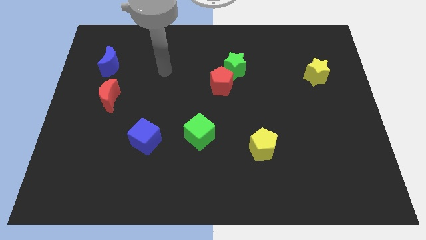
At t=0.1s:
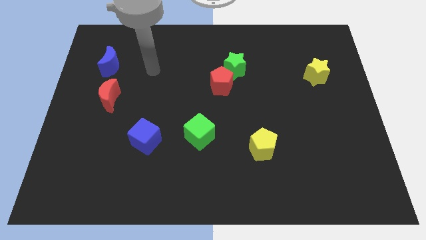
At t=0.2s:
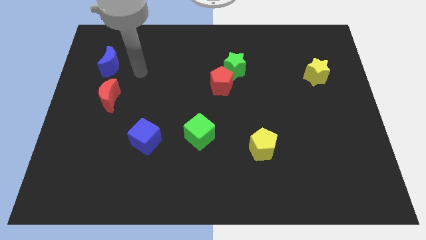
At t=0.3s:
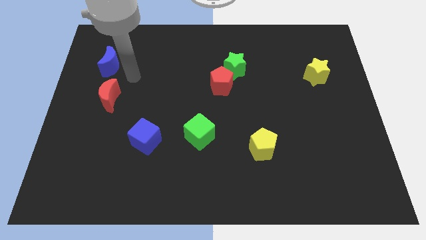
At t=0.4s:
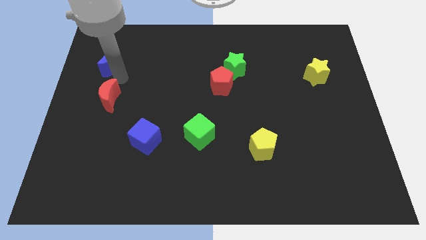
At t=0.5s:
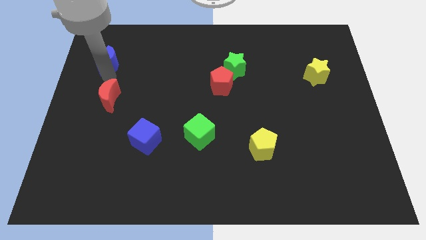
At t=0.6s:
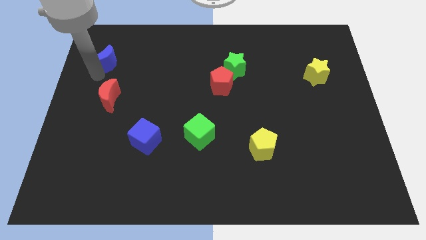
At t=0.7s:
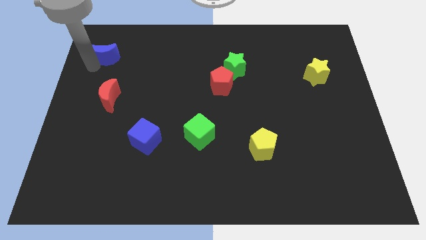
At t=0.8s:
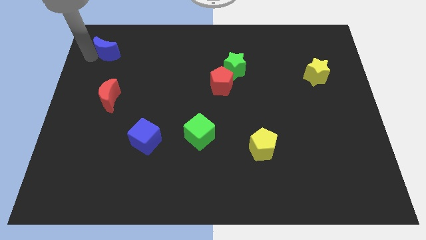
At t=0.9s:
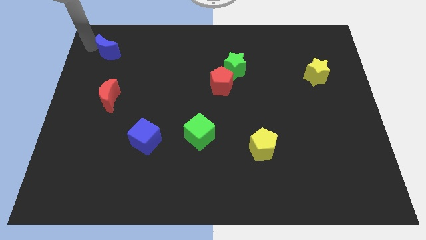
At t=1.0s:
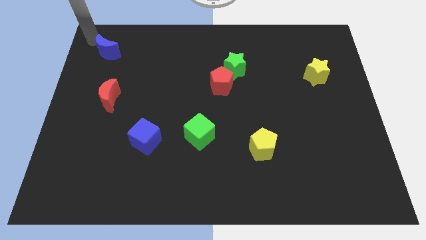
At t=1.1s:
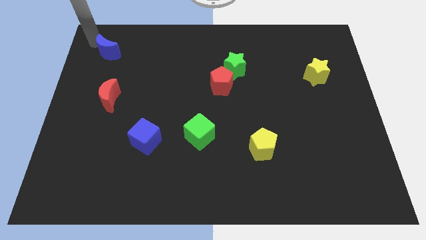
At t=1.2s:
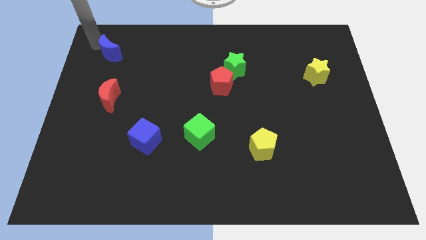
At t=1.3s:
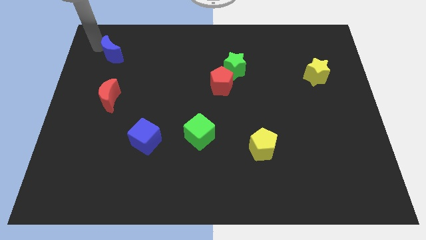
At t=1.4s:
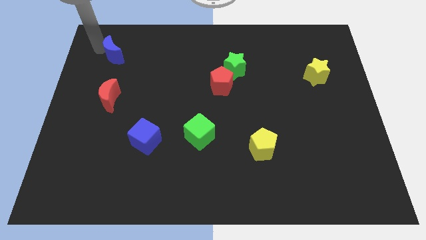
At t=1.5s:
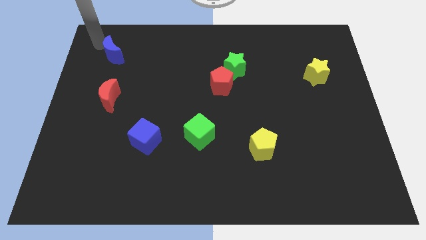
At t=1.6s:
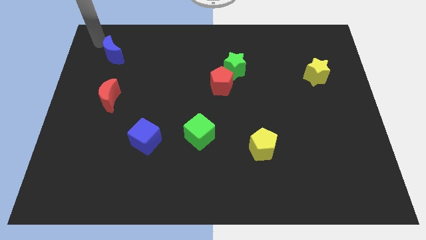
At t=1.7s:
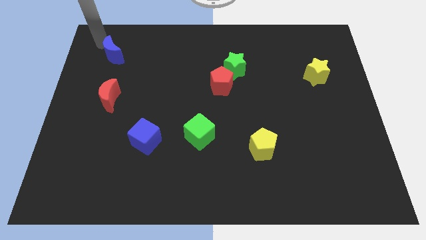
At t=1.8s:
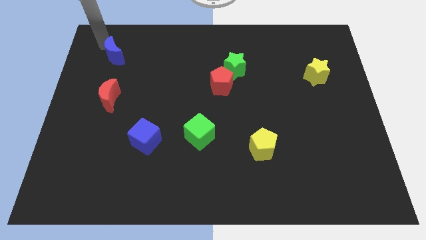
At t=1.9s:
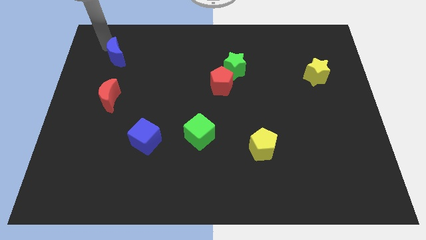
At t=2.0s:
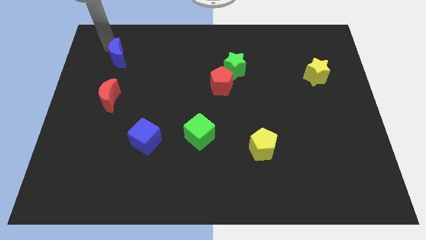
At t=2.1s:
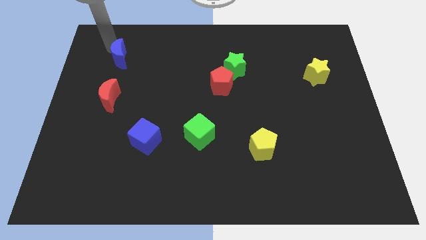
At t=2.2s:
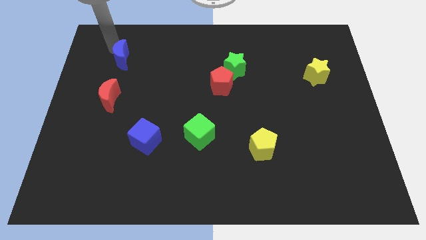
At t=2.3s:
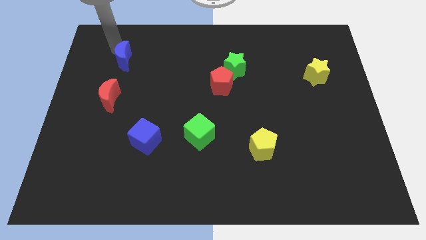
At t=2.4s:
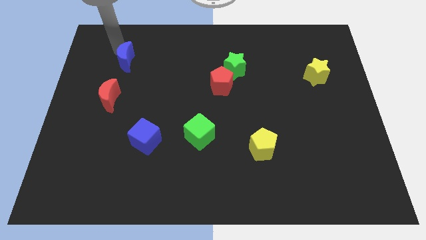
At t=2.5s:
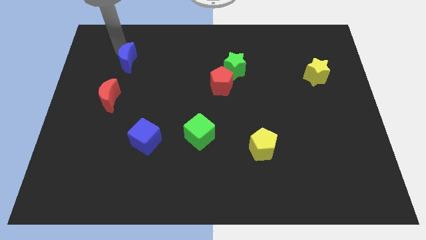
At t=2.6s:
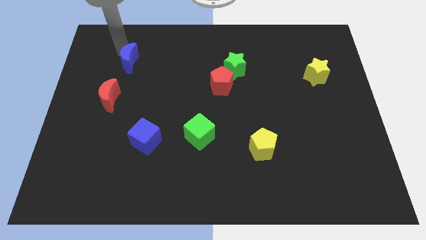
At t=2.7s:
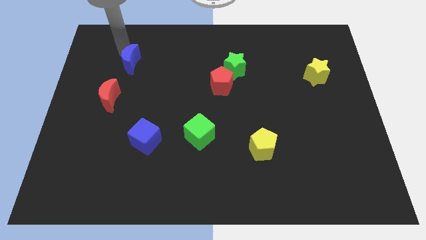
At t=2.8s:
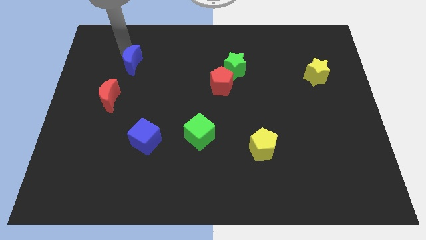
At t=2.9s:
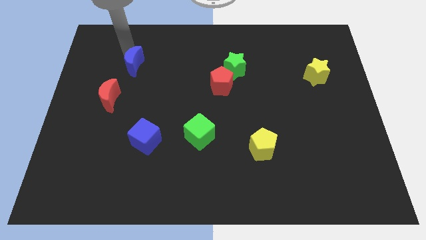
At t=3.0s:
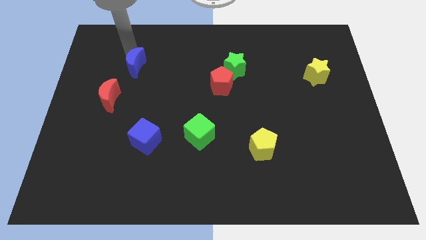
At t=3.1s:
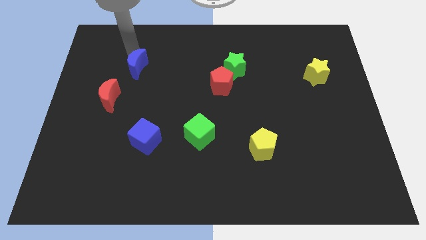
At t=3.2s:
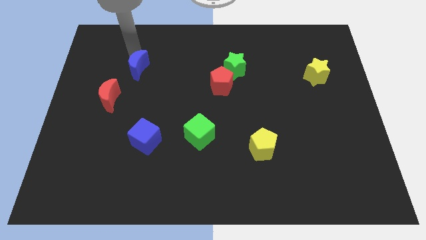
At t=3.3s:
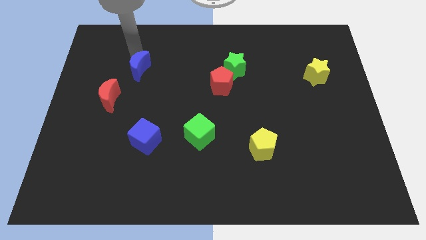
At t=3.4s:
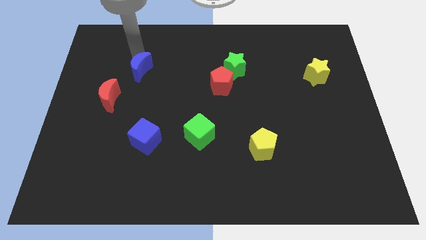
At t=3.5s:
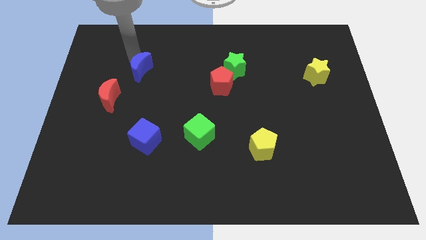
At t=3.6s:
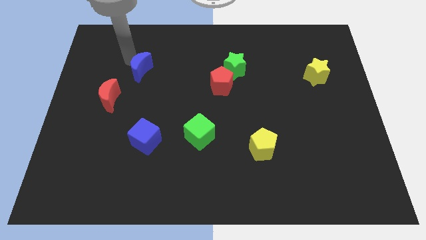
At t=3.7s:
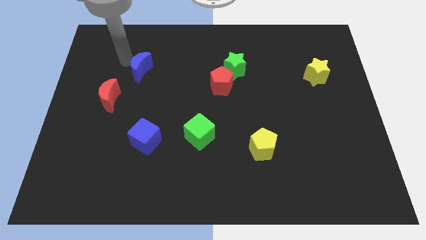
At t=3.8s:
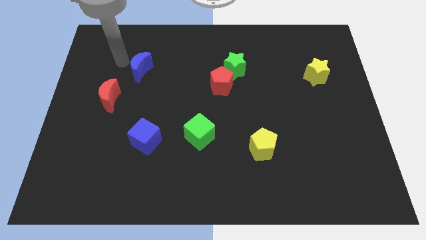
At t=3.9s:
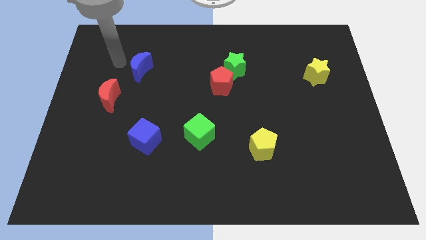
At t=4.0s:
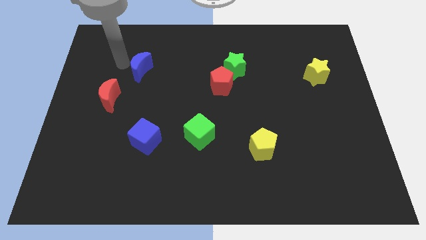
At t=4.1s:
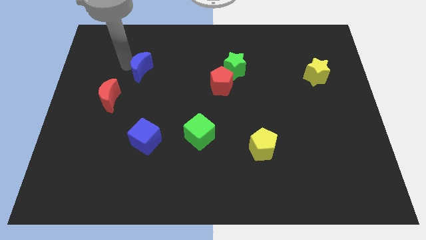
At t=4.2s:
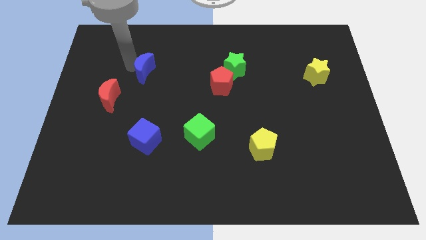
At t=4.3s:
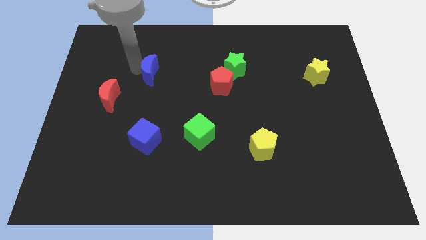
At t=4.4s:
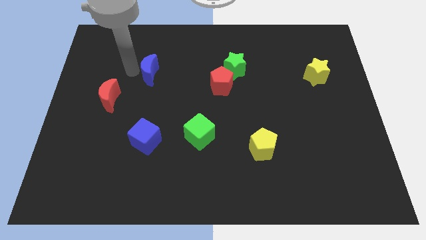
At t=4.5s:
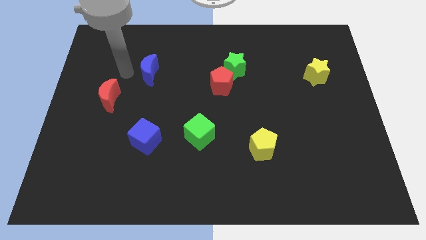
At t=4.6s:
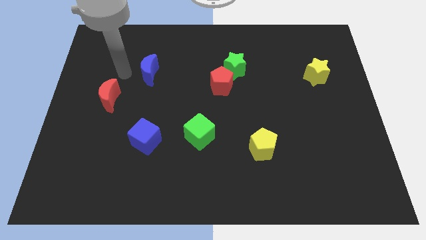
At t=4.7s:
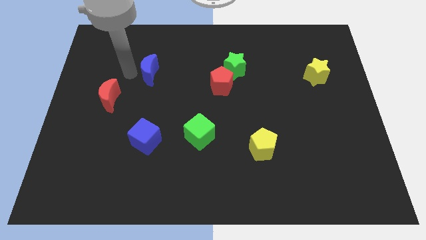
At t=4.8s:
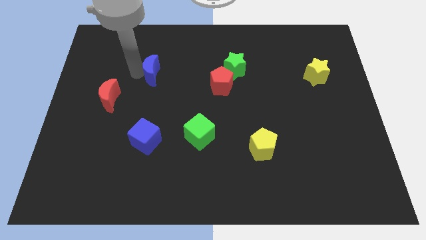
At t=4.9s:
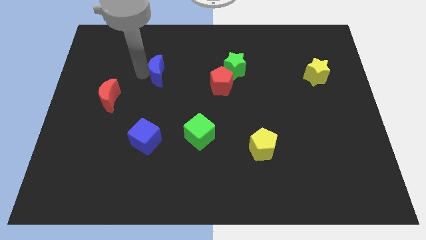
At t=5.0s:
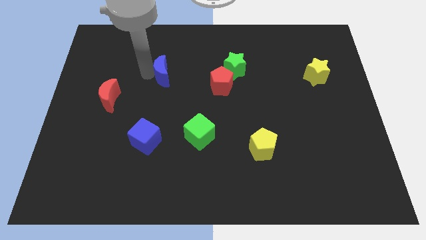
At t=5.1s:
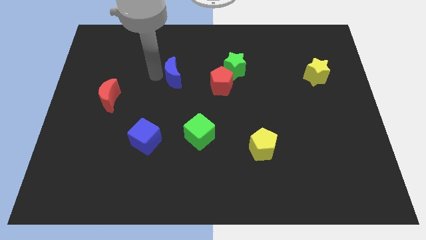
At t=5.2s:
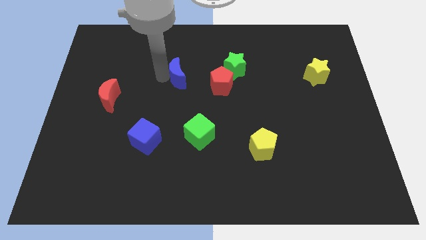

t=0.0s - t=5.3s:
slide the blue moon just left of the green star

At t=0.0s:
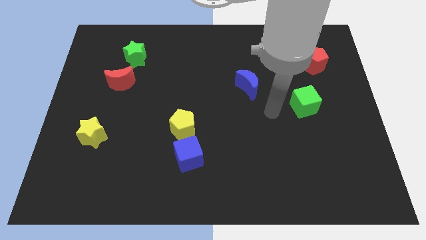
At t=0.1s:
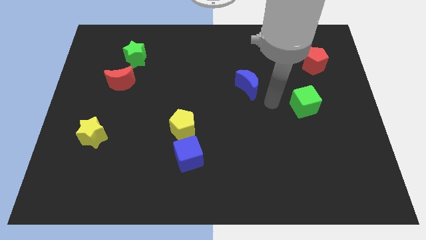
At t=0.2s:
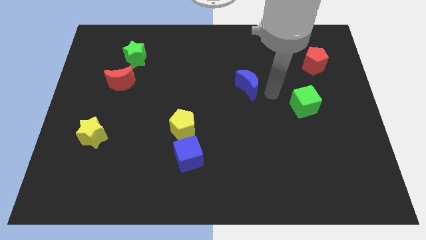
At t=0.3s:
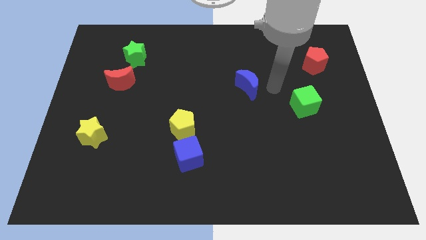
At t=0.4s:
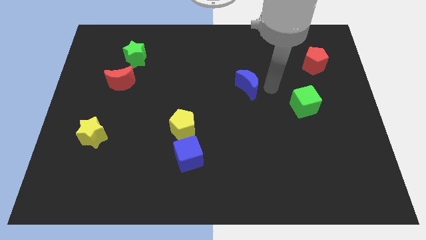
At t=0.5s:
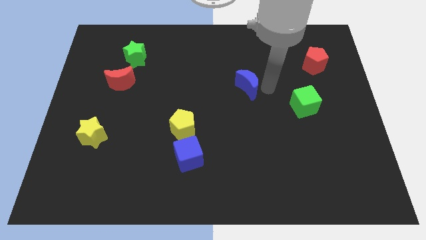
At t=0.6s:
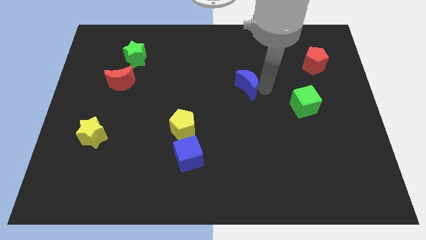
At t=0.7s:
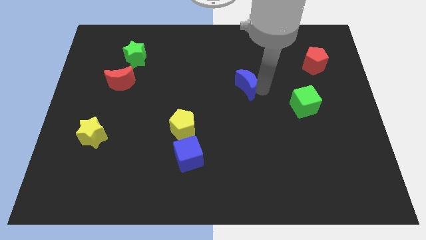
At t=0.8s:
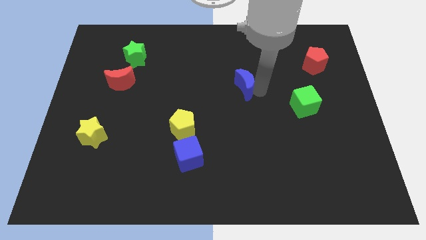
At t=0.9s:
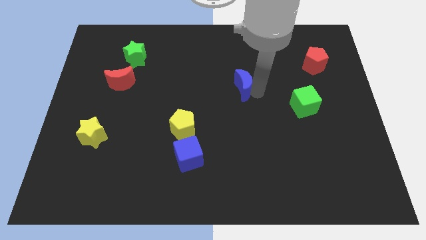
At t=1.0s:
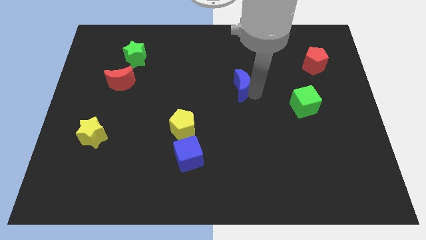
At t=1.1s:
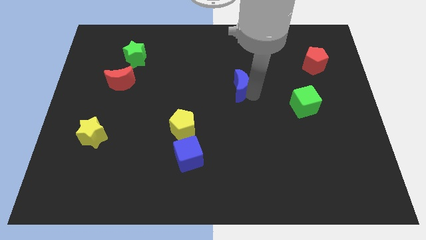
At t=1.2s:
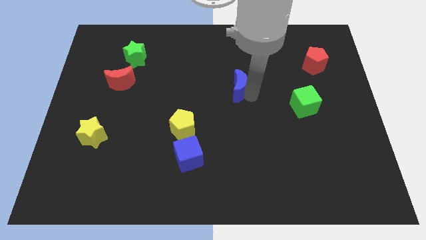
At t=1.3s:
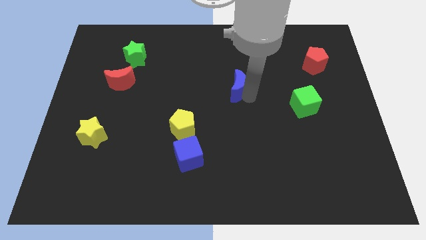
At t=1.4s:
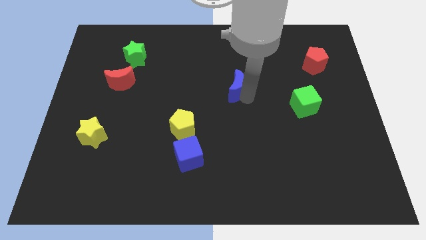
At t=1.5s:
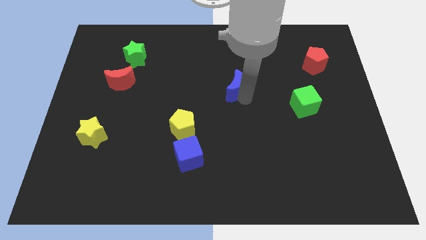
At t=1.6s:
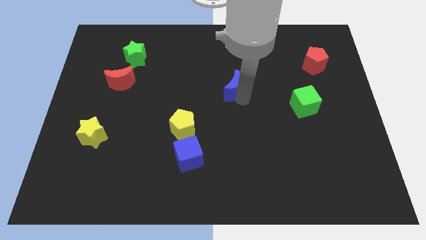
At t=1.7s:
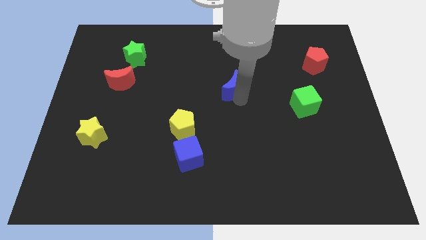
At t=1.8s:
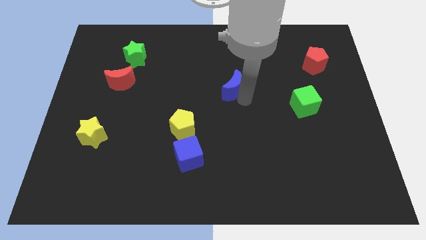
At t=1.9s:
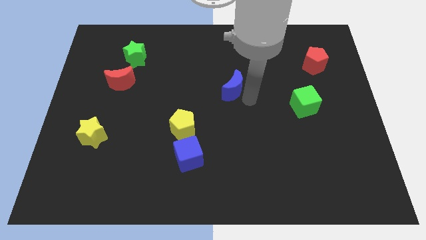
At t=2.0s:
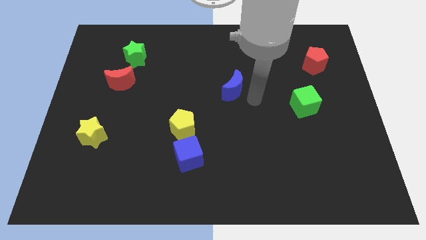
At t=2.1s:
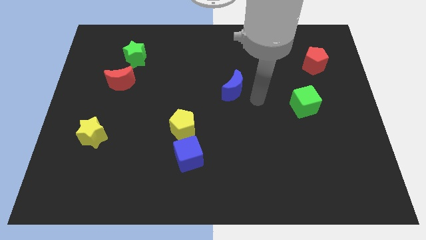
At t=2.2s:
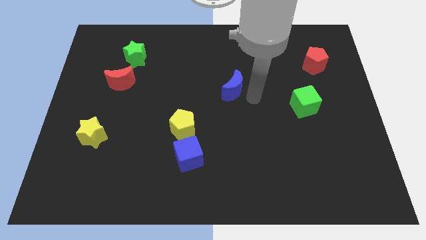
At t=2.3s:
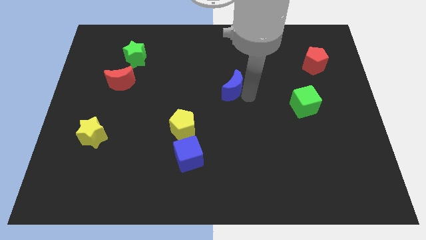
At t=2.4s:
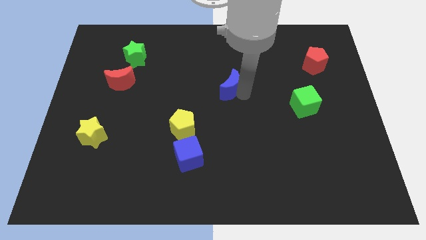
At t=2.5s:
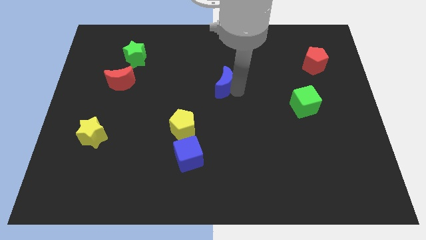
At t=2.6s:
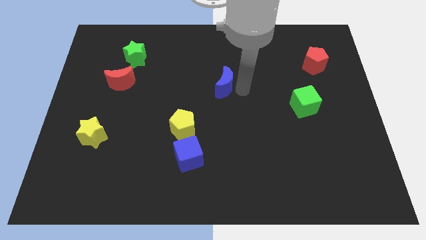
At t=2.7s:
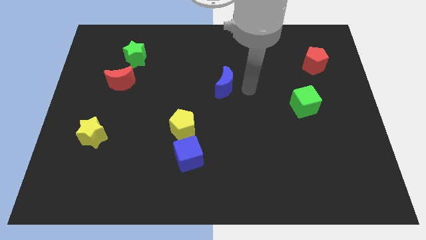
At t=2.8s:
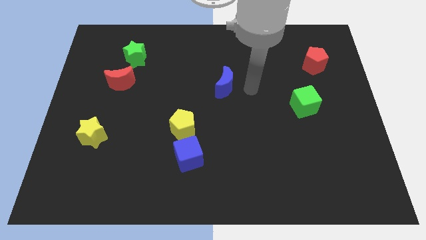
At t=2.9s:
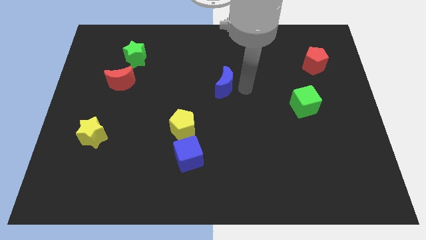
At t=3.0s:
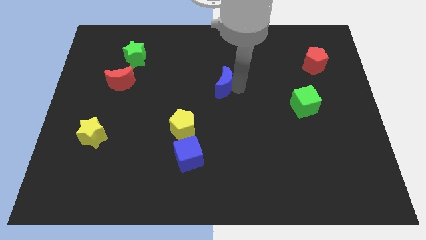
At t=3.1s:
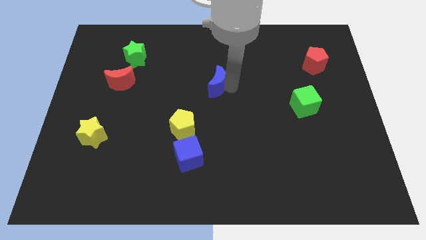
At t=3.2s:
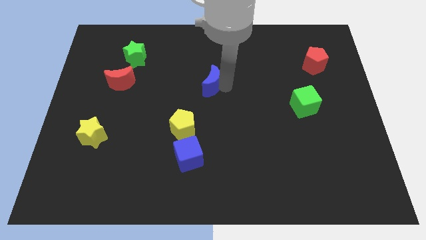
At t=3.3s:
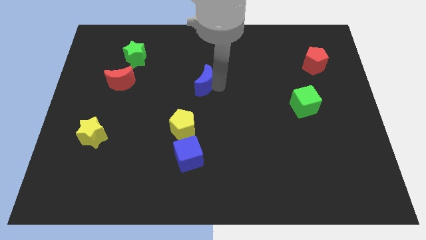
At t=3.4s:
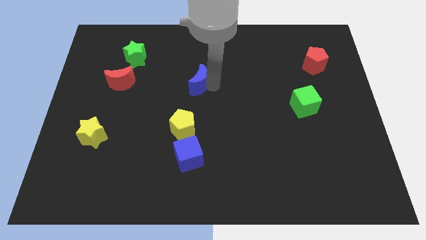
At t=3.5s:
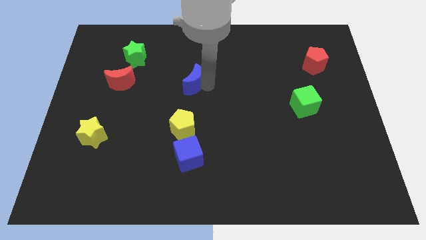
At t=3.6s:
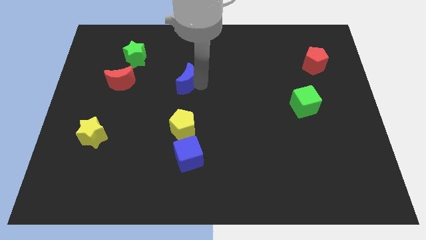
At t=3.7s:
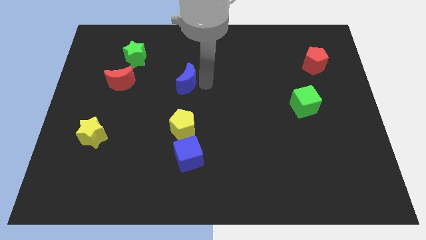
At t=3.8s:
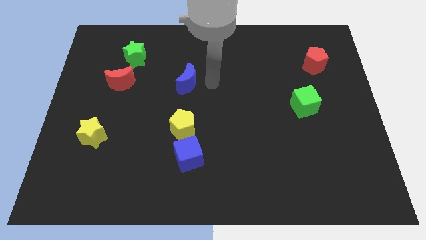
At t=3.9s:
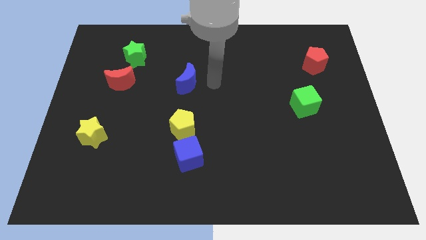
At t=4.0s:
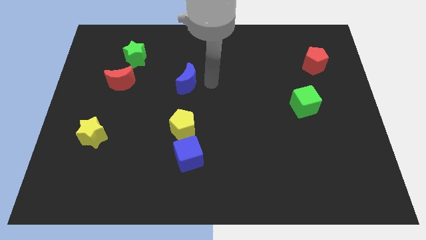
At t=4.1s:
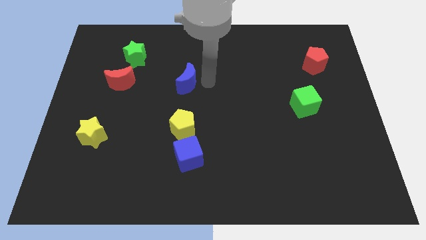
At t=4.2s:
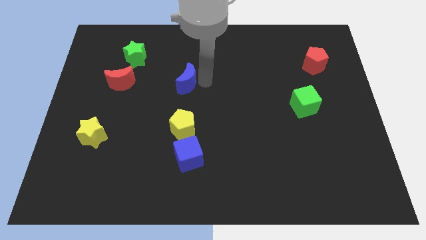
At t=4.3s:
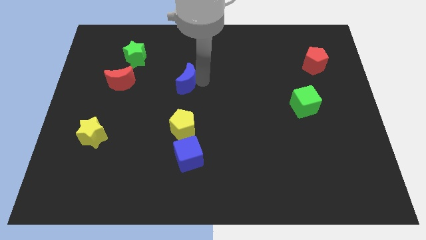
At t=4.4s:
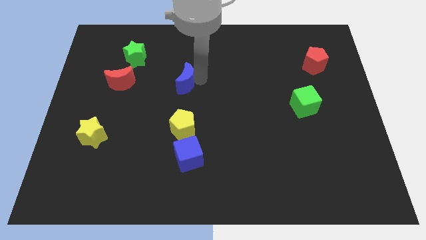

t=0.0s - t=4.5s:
push the blue moon right of the red moon
